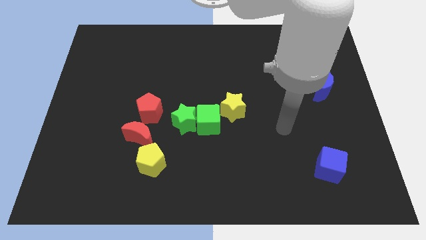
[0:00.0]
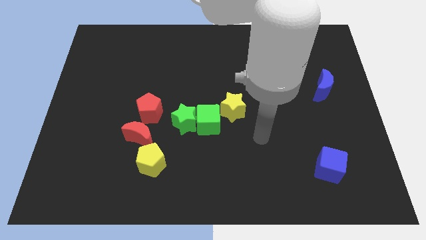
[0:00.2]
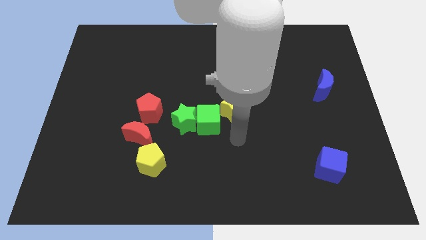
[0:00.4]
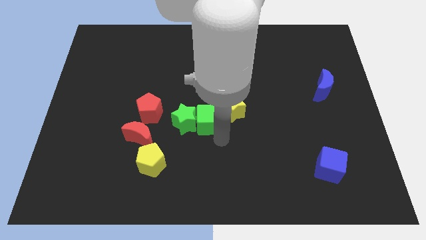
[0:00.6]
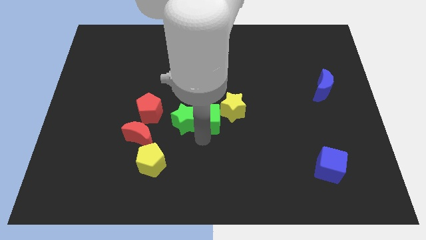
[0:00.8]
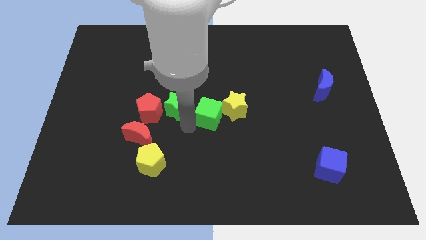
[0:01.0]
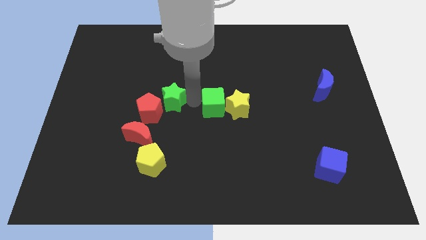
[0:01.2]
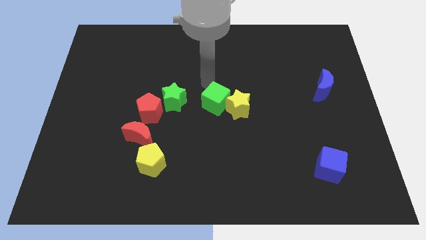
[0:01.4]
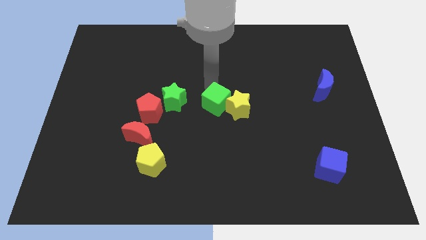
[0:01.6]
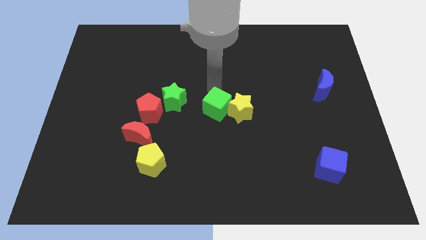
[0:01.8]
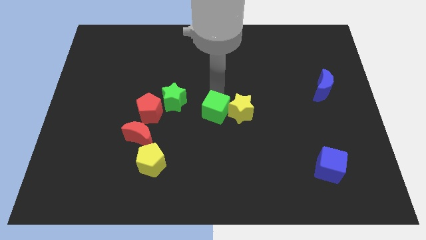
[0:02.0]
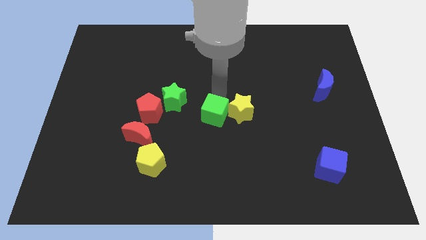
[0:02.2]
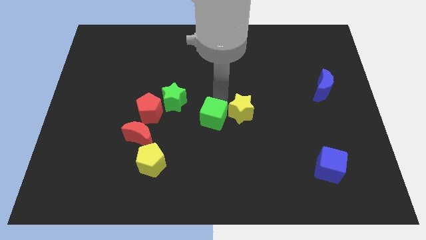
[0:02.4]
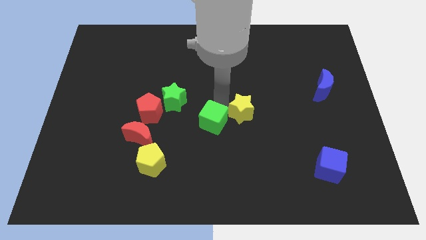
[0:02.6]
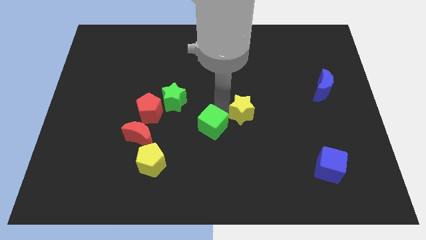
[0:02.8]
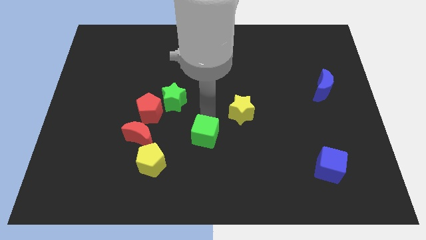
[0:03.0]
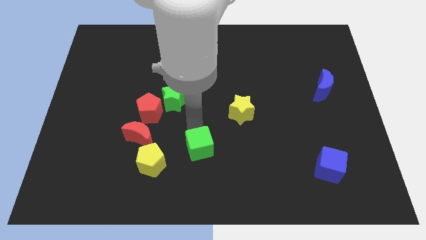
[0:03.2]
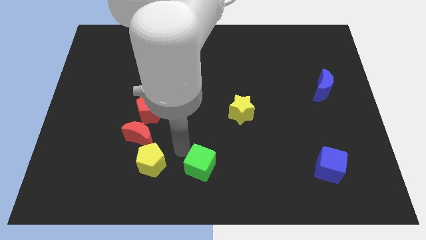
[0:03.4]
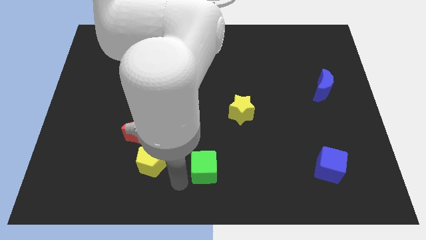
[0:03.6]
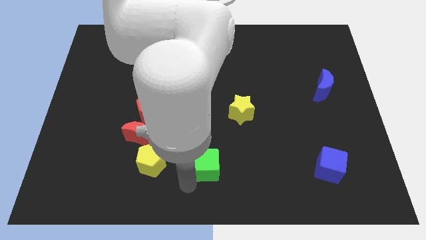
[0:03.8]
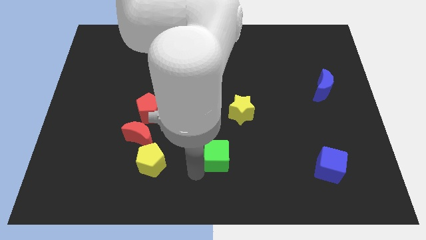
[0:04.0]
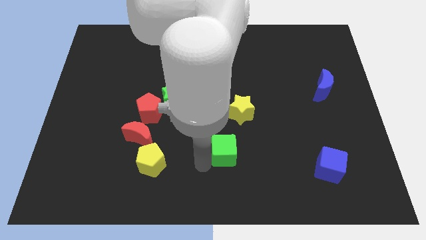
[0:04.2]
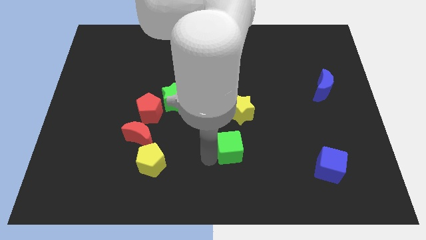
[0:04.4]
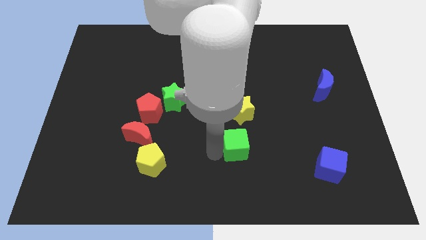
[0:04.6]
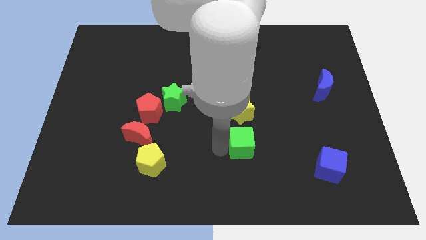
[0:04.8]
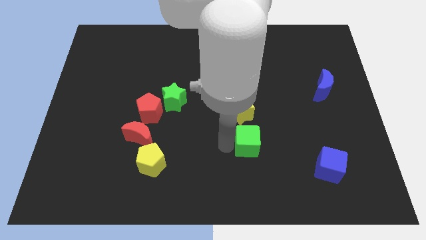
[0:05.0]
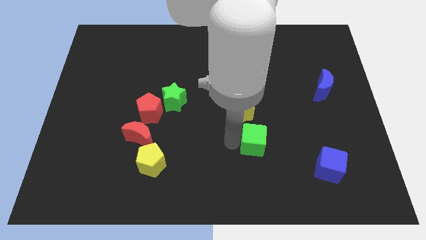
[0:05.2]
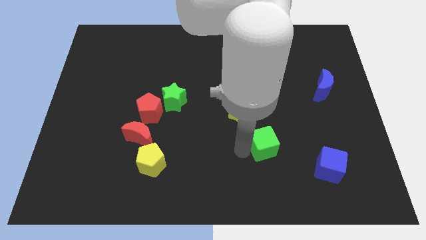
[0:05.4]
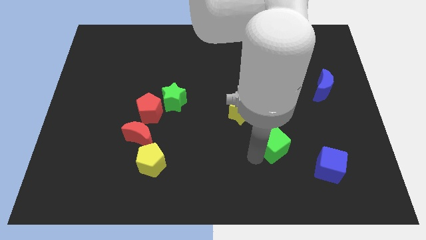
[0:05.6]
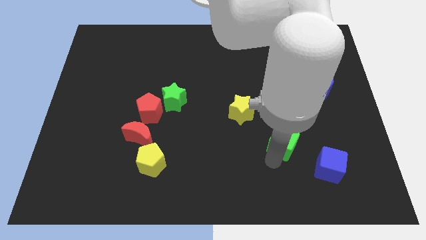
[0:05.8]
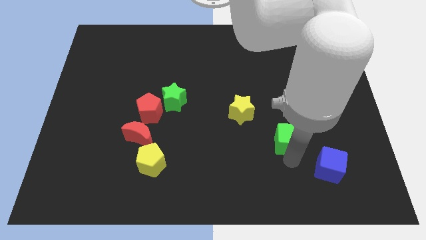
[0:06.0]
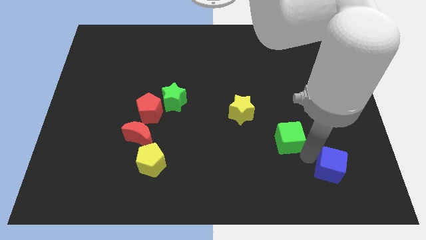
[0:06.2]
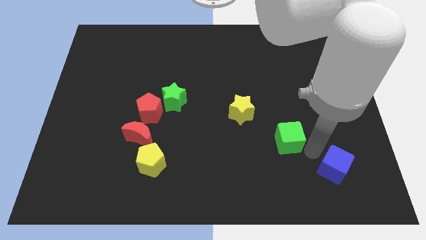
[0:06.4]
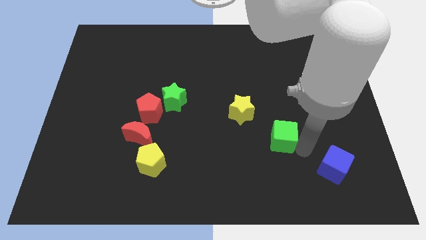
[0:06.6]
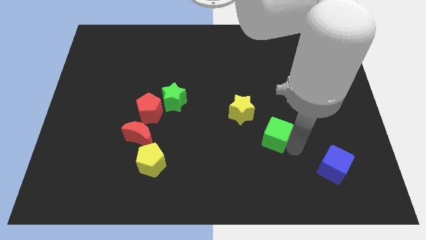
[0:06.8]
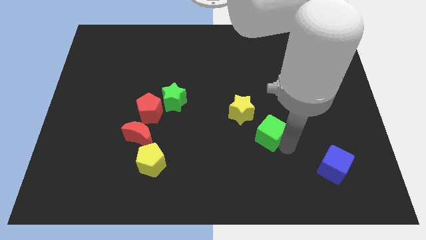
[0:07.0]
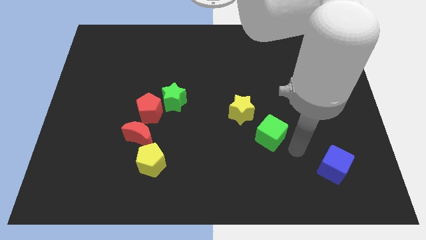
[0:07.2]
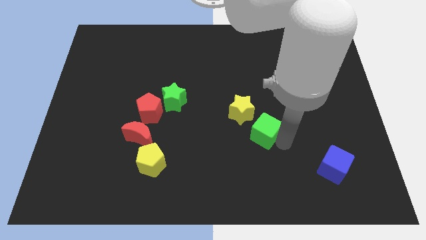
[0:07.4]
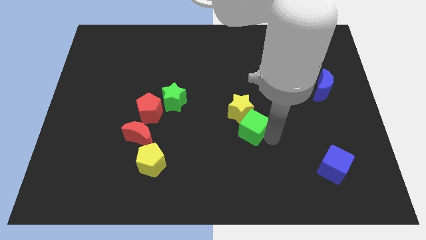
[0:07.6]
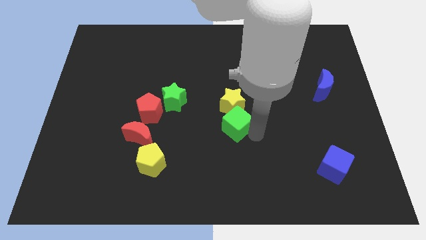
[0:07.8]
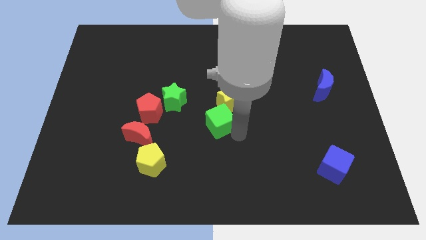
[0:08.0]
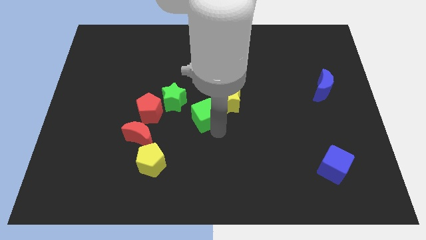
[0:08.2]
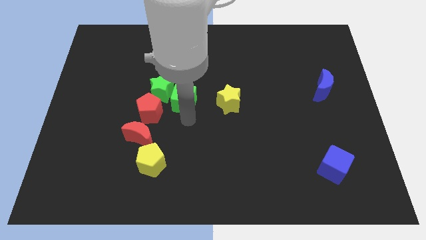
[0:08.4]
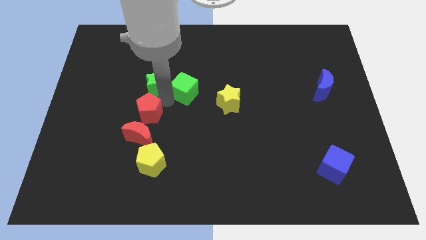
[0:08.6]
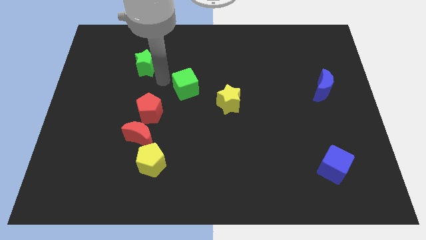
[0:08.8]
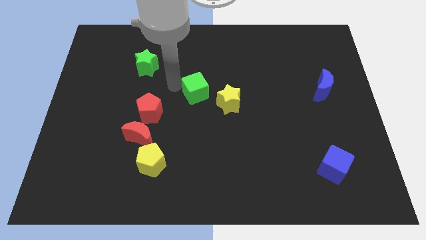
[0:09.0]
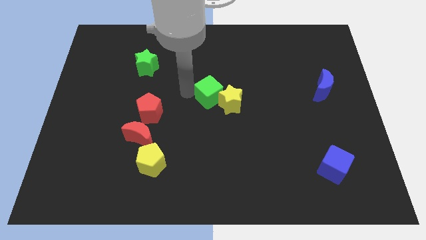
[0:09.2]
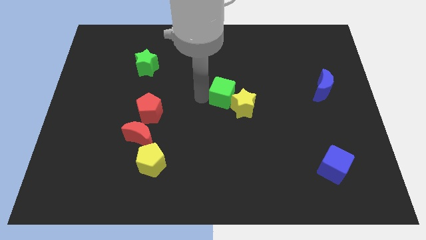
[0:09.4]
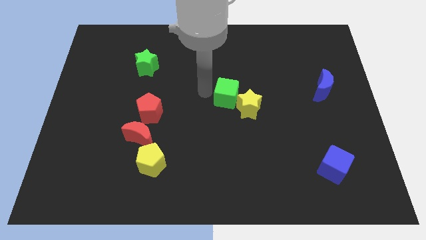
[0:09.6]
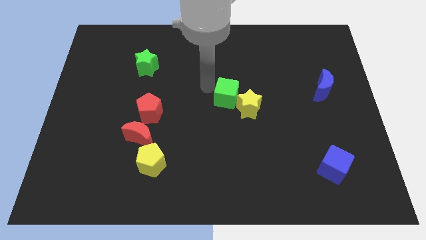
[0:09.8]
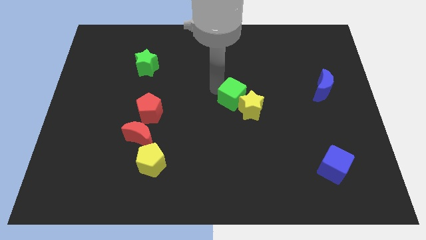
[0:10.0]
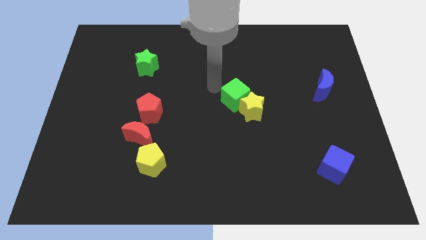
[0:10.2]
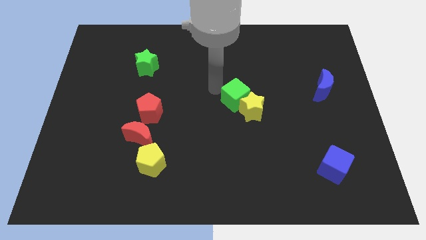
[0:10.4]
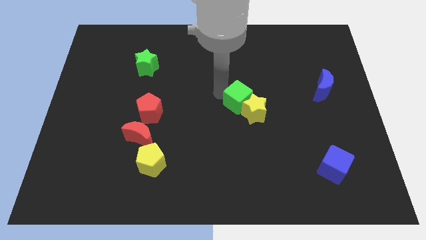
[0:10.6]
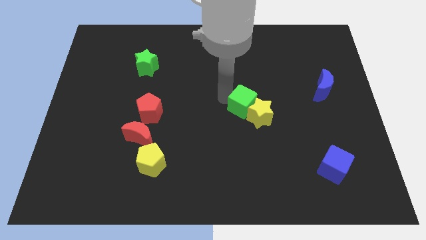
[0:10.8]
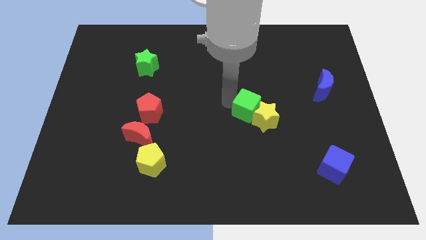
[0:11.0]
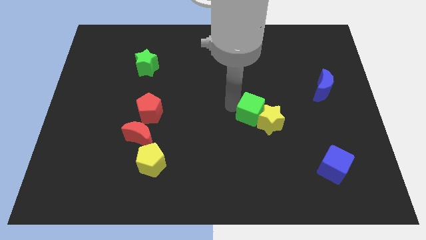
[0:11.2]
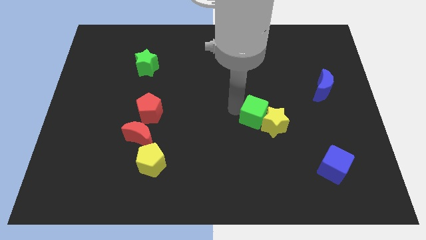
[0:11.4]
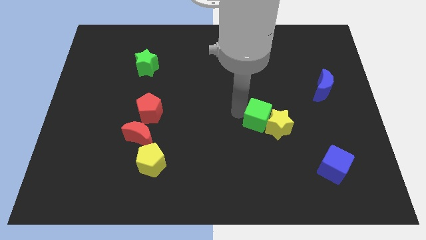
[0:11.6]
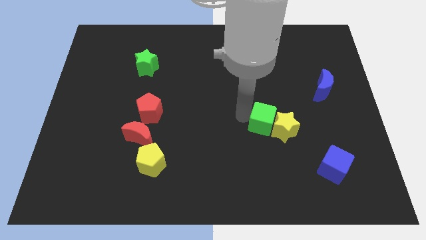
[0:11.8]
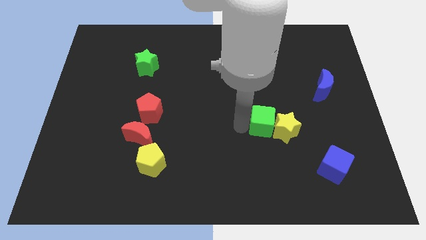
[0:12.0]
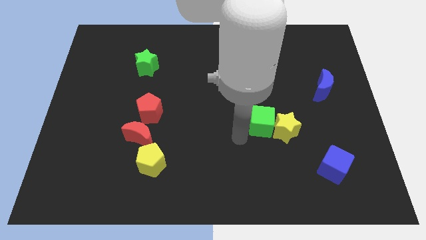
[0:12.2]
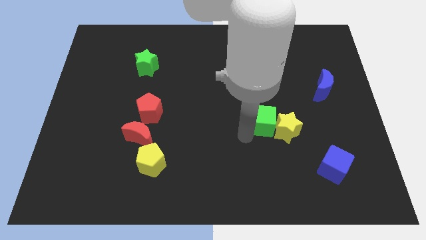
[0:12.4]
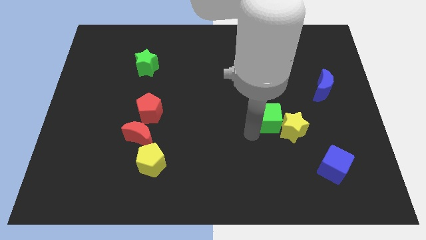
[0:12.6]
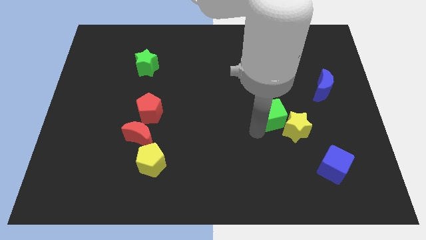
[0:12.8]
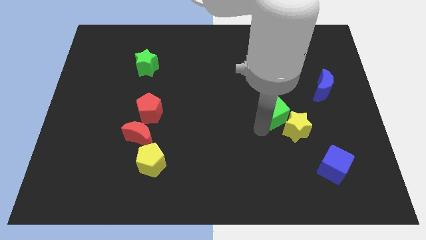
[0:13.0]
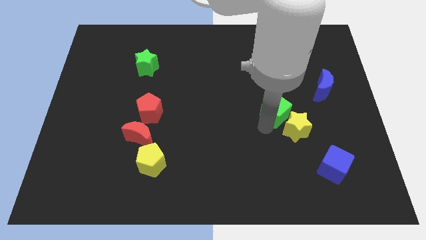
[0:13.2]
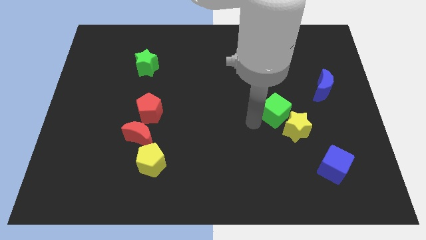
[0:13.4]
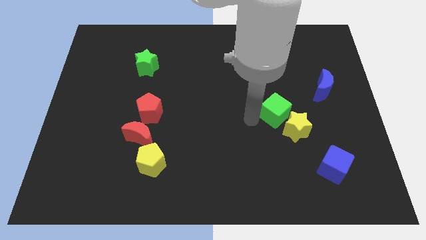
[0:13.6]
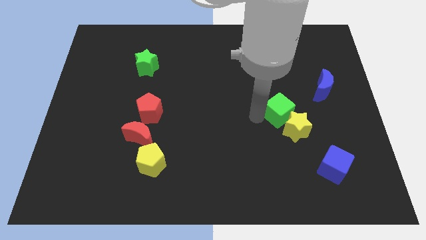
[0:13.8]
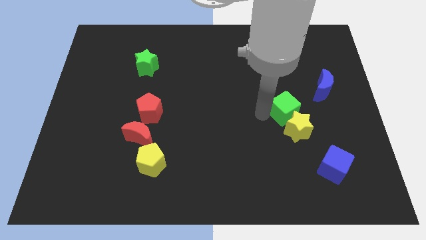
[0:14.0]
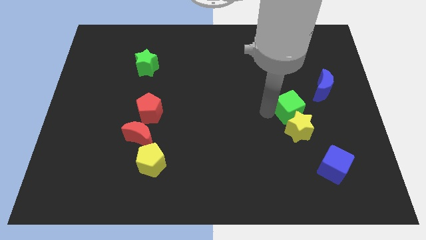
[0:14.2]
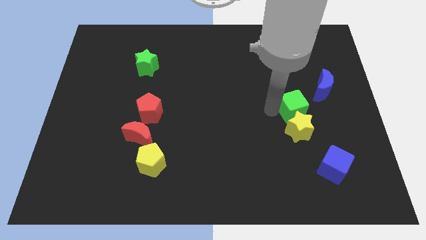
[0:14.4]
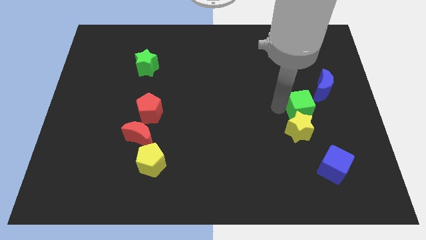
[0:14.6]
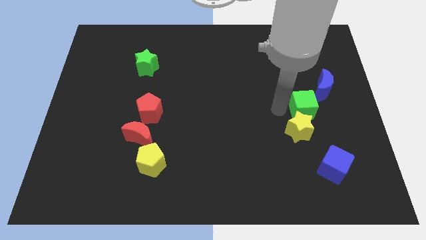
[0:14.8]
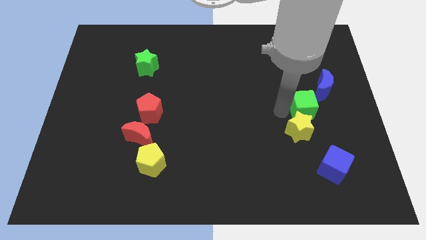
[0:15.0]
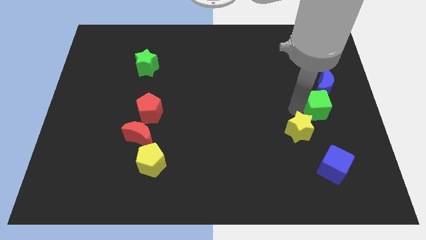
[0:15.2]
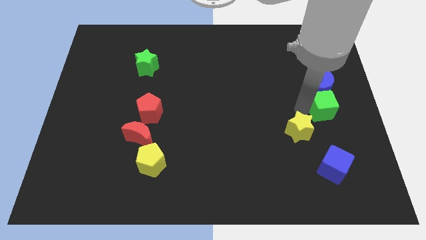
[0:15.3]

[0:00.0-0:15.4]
slide the green cube to the right side of the board
